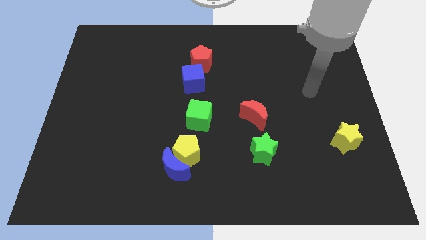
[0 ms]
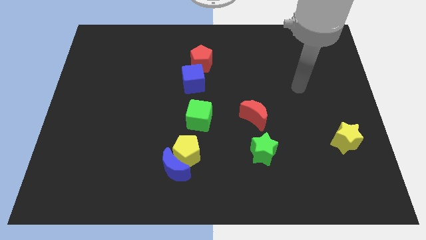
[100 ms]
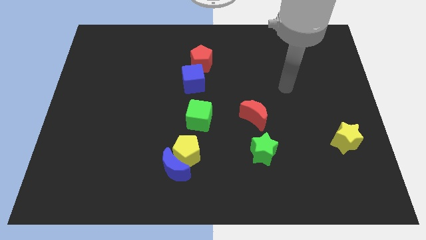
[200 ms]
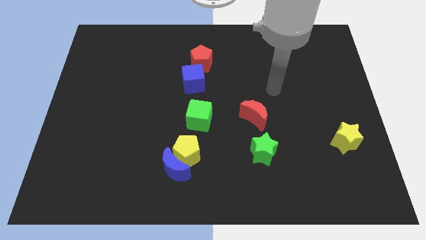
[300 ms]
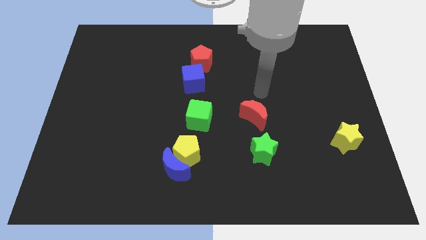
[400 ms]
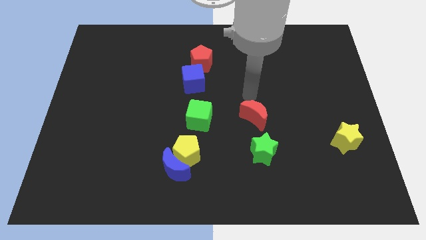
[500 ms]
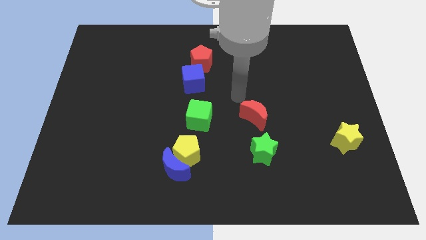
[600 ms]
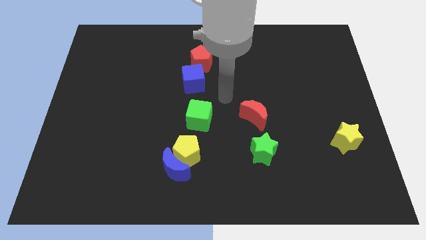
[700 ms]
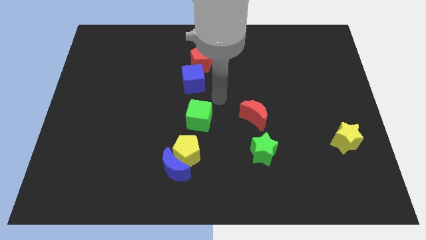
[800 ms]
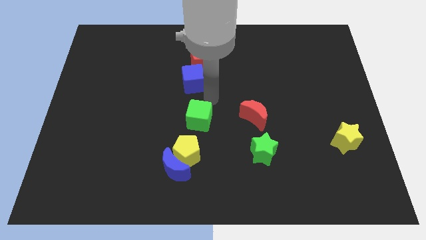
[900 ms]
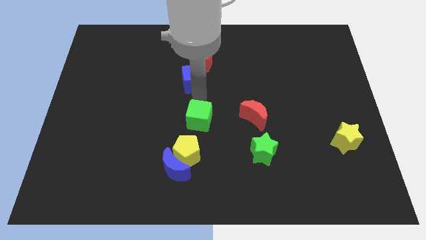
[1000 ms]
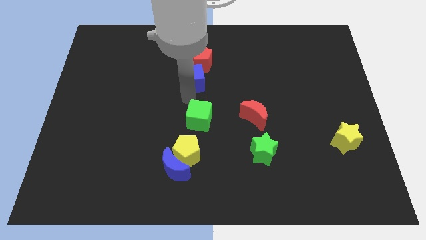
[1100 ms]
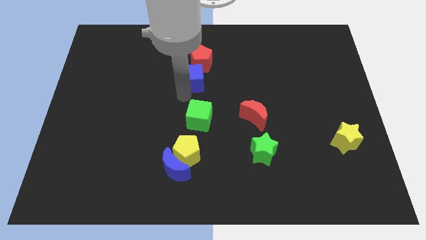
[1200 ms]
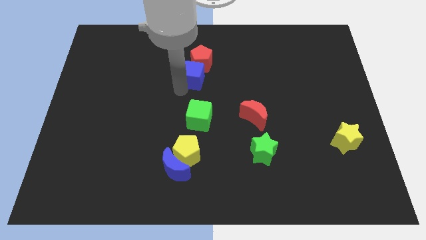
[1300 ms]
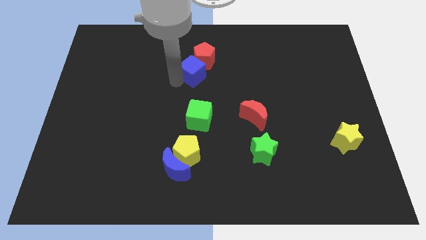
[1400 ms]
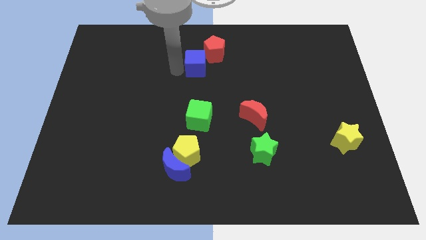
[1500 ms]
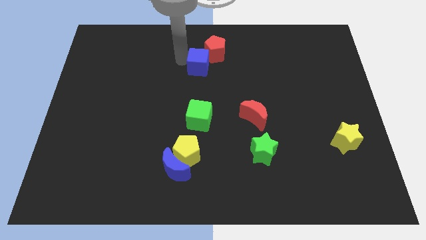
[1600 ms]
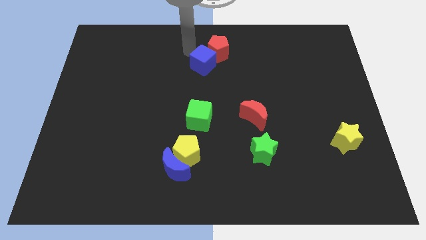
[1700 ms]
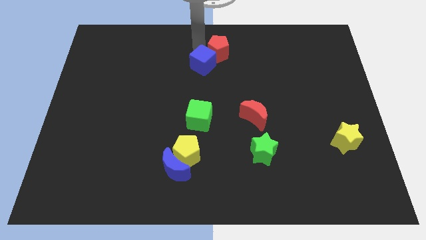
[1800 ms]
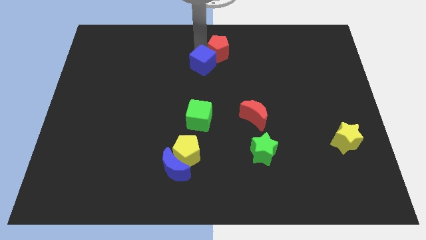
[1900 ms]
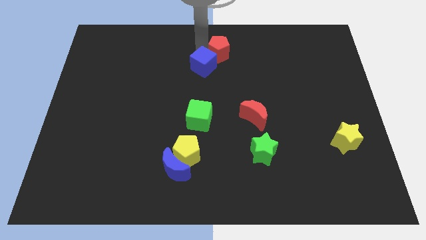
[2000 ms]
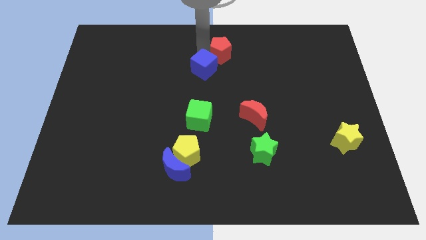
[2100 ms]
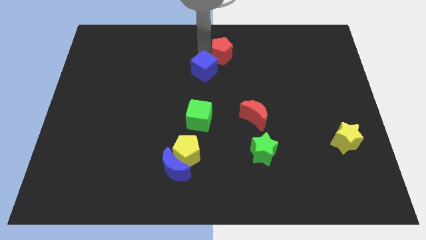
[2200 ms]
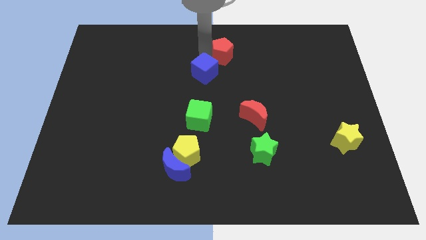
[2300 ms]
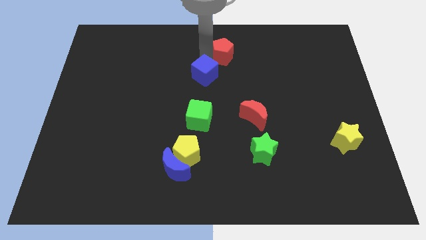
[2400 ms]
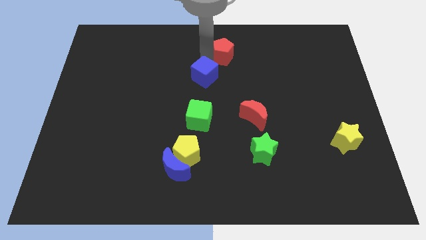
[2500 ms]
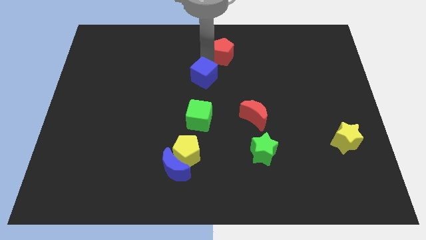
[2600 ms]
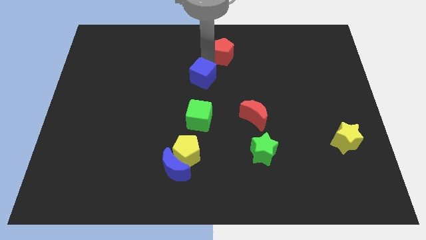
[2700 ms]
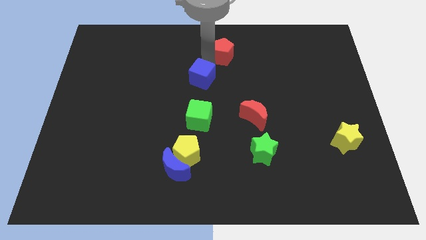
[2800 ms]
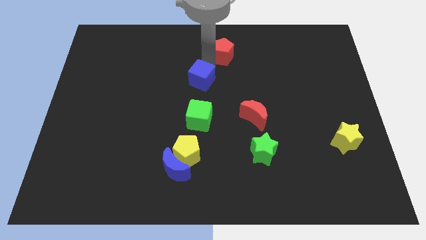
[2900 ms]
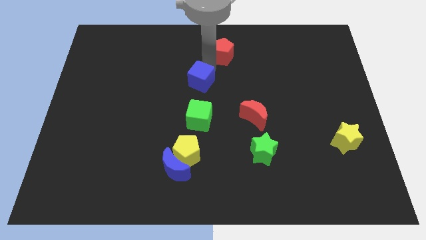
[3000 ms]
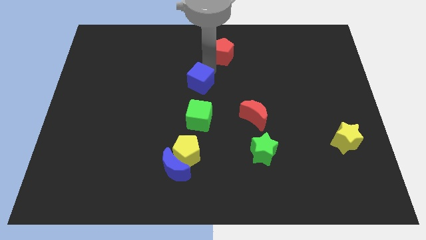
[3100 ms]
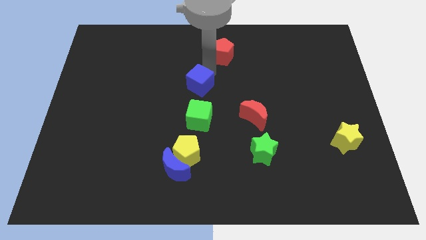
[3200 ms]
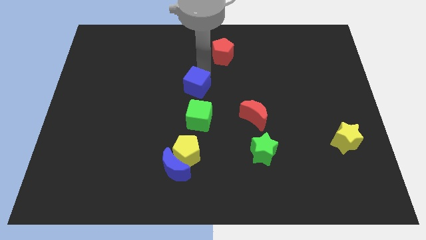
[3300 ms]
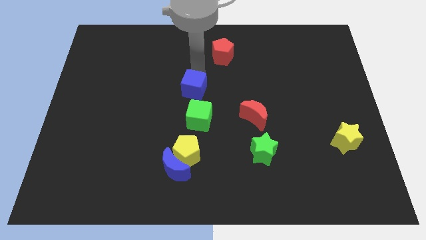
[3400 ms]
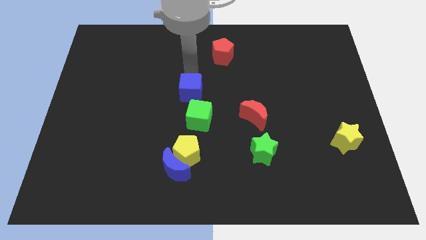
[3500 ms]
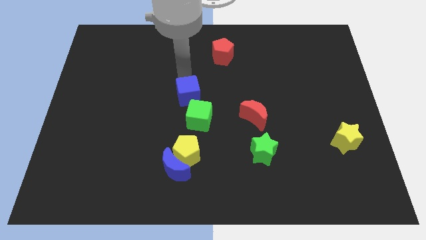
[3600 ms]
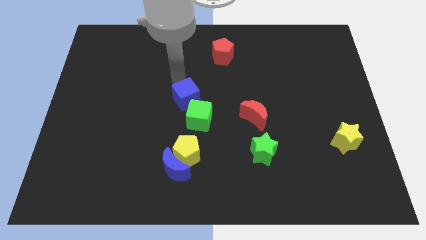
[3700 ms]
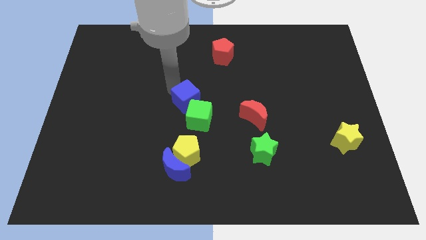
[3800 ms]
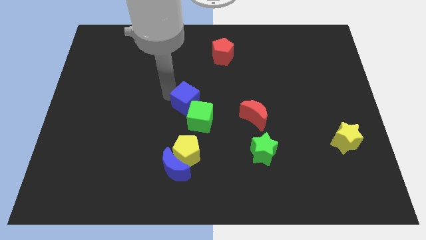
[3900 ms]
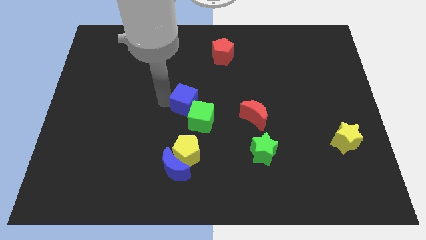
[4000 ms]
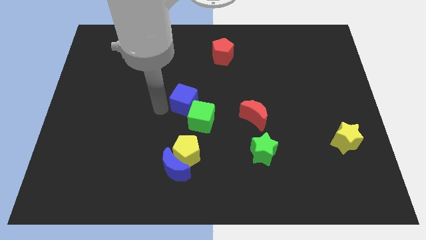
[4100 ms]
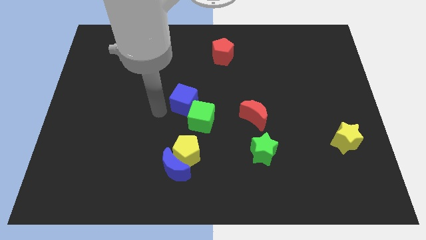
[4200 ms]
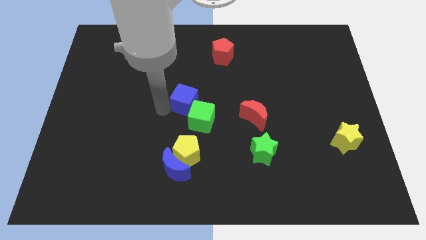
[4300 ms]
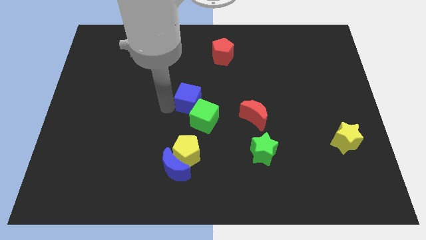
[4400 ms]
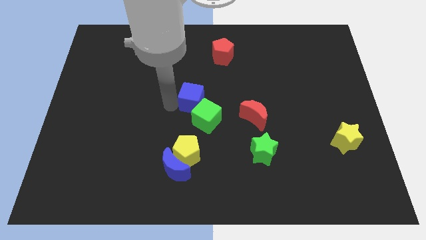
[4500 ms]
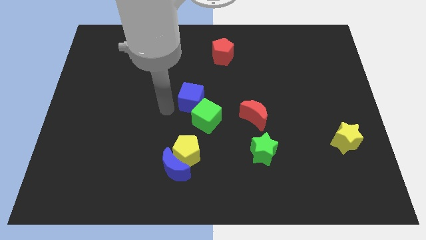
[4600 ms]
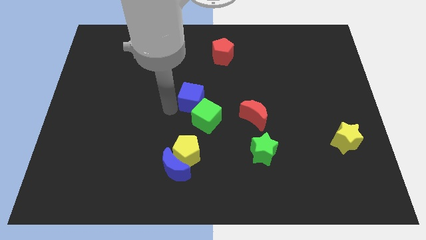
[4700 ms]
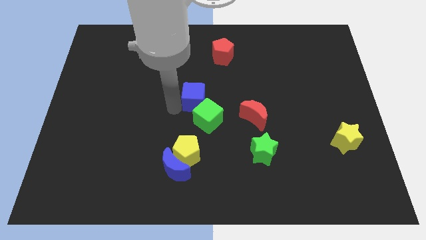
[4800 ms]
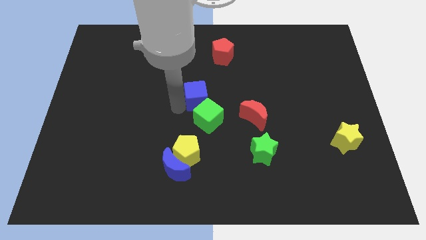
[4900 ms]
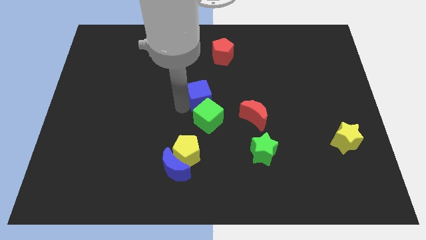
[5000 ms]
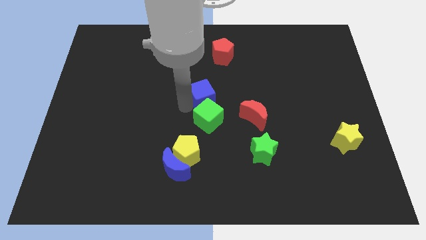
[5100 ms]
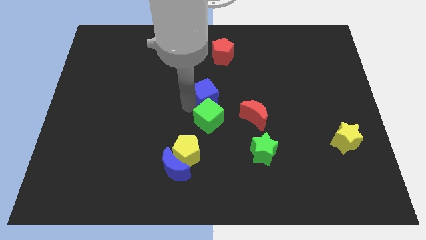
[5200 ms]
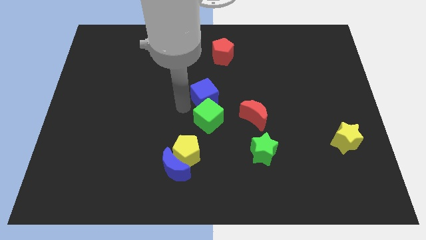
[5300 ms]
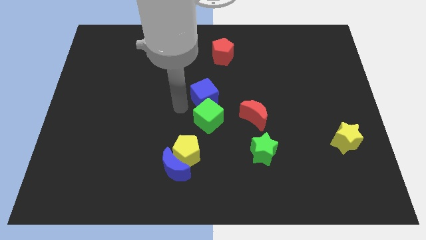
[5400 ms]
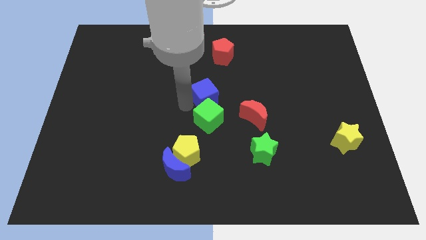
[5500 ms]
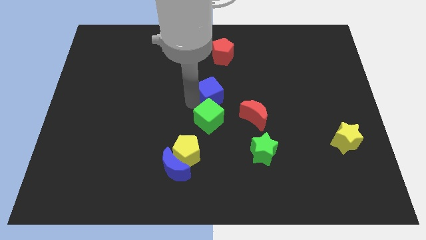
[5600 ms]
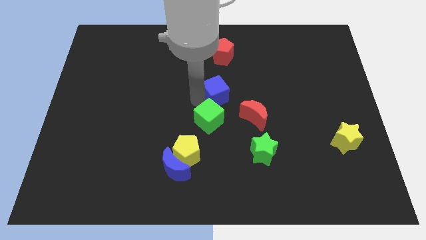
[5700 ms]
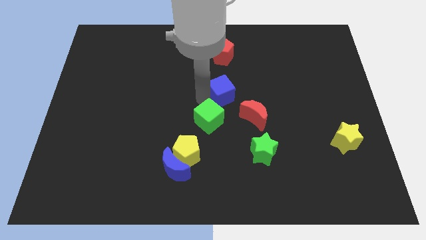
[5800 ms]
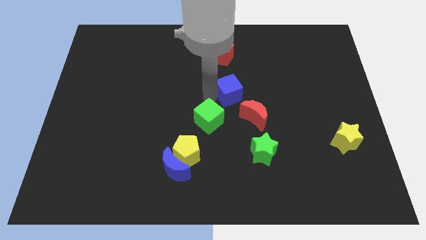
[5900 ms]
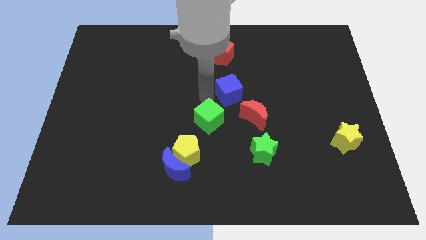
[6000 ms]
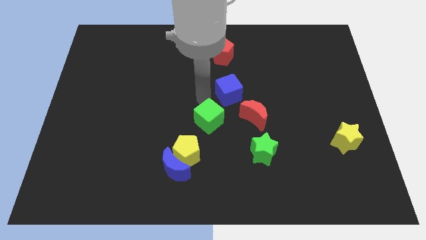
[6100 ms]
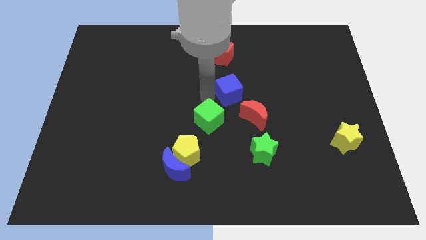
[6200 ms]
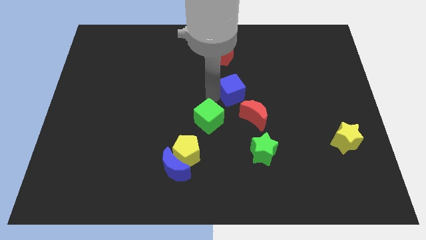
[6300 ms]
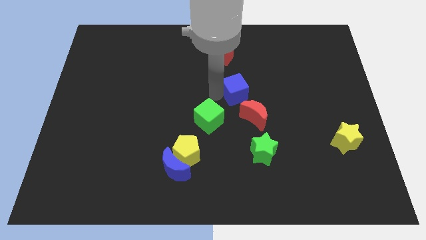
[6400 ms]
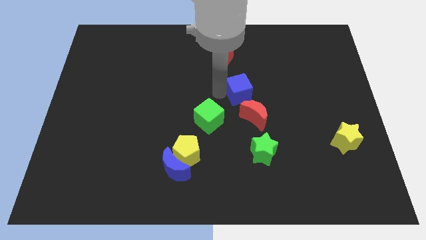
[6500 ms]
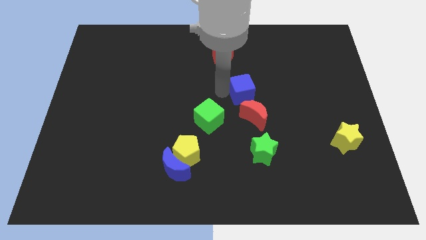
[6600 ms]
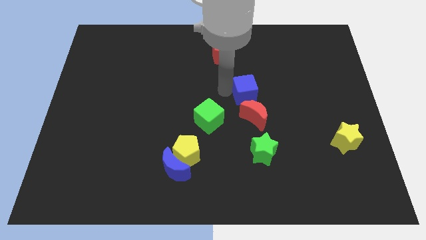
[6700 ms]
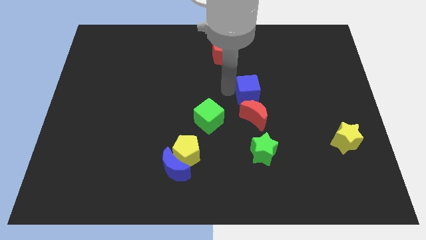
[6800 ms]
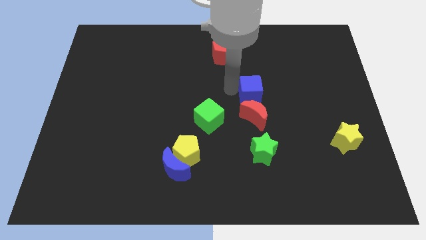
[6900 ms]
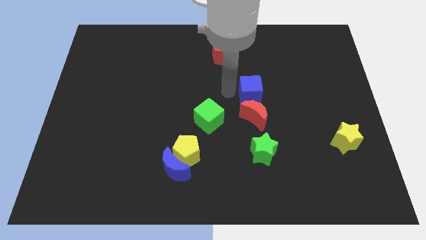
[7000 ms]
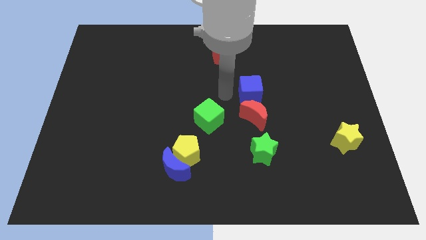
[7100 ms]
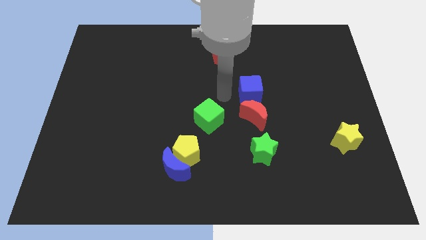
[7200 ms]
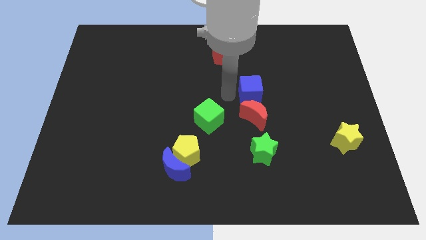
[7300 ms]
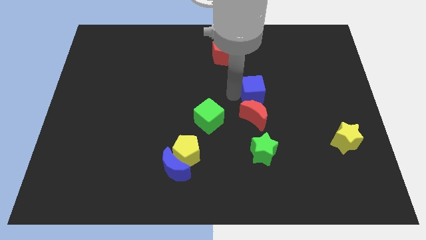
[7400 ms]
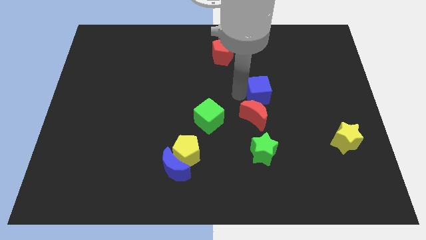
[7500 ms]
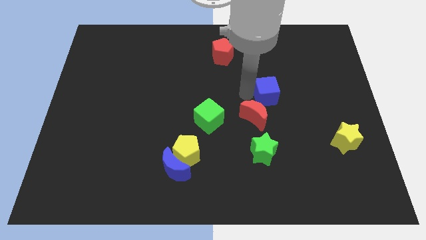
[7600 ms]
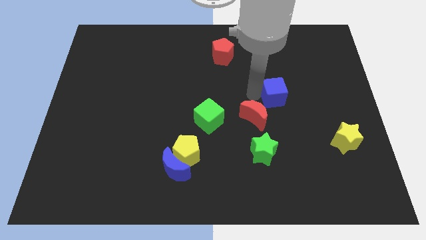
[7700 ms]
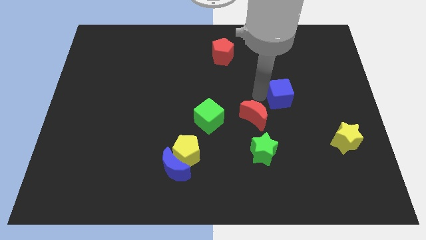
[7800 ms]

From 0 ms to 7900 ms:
push the blue cube right

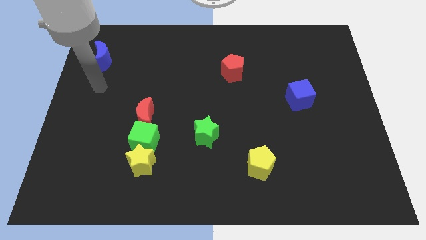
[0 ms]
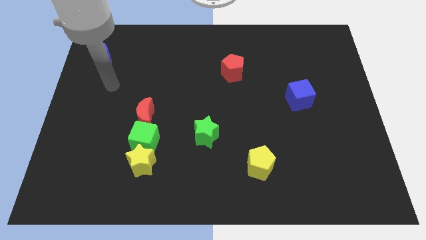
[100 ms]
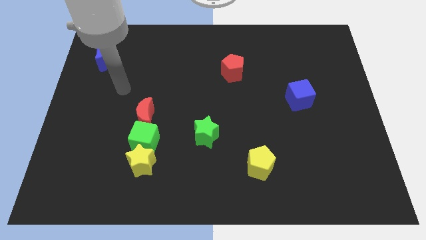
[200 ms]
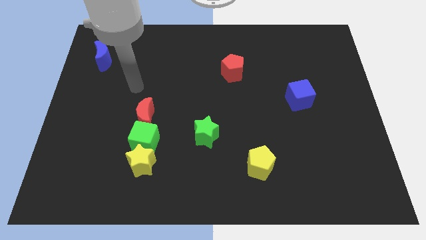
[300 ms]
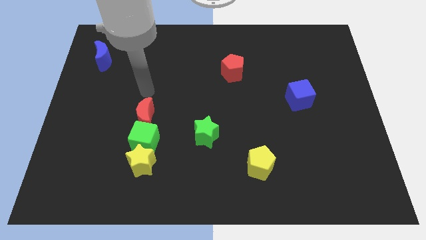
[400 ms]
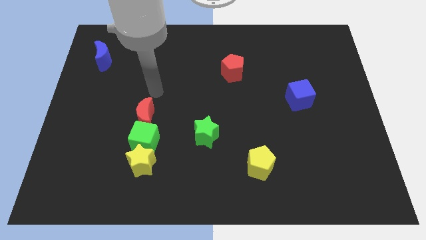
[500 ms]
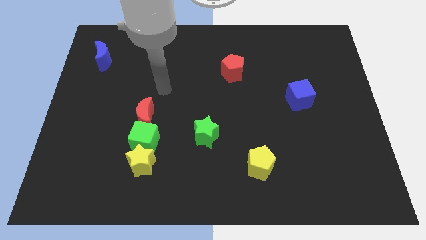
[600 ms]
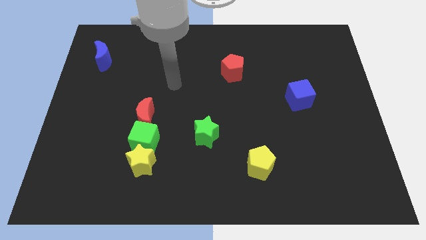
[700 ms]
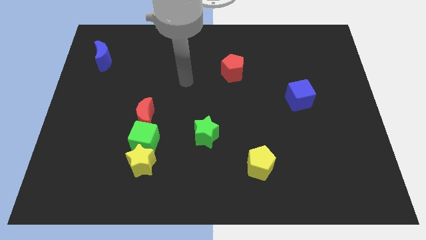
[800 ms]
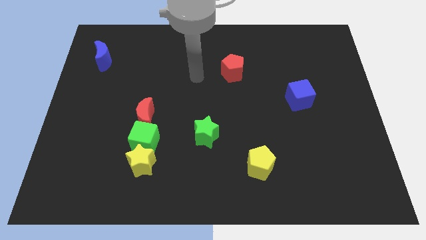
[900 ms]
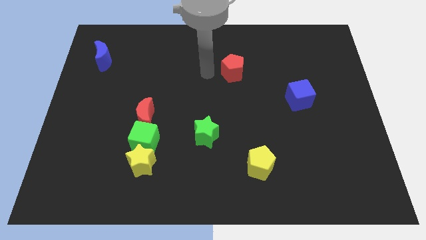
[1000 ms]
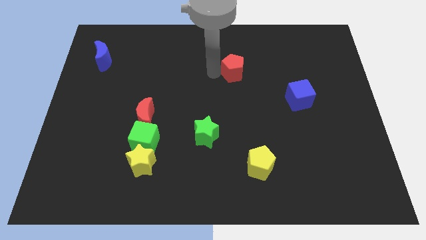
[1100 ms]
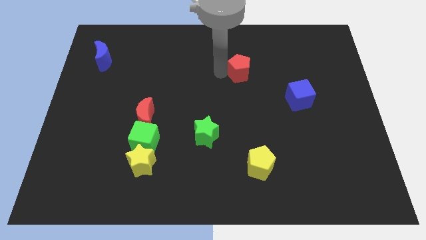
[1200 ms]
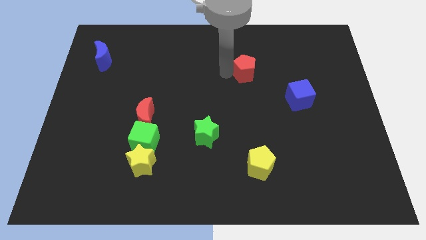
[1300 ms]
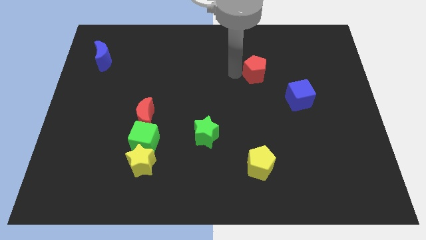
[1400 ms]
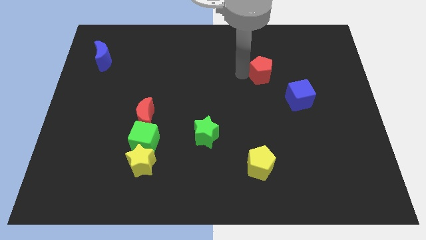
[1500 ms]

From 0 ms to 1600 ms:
slightly slide the red pentagon right
